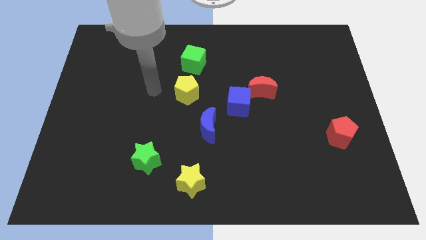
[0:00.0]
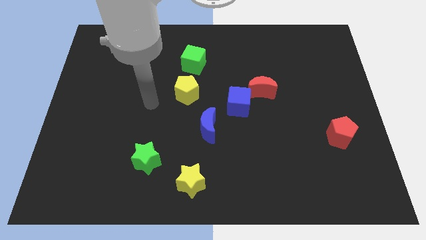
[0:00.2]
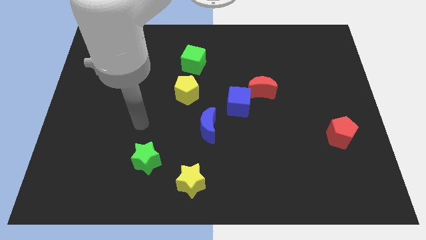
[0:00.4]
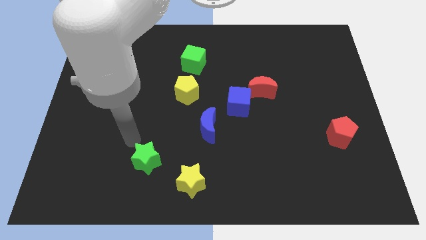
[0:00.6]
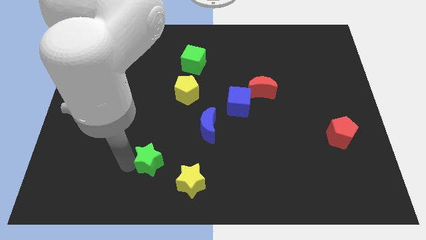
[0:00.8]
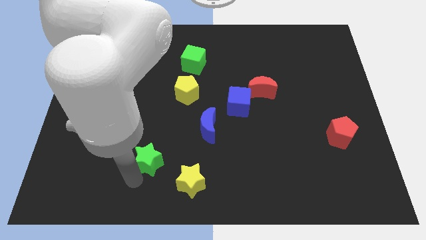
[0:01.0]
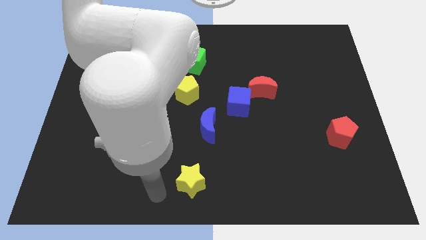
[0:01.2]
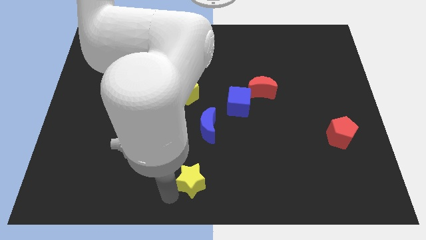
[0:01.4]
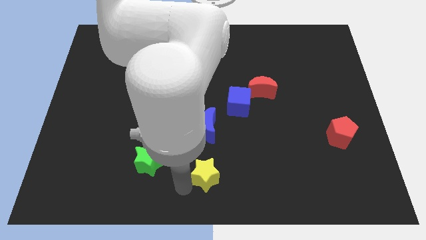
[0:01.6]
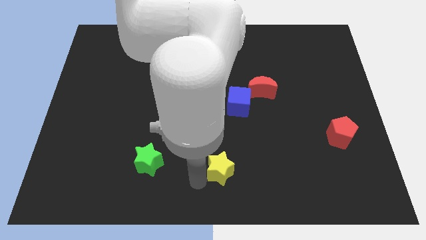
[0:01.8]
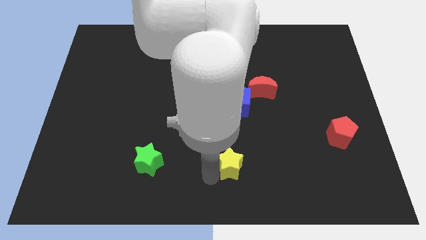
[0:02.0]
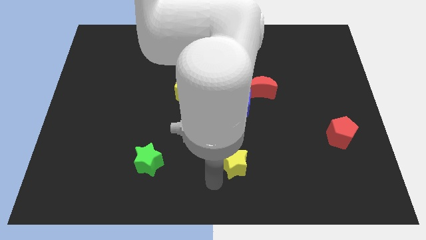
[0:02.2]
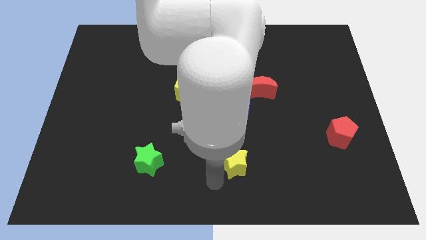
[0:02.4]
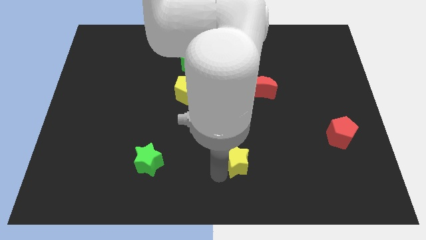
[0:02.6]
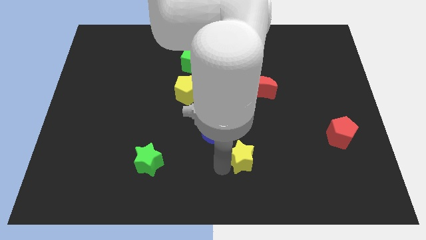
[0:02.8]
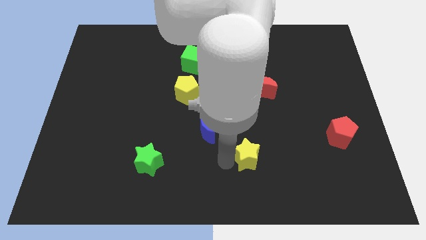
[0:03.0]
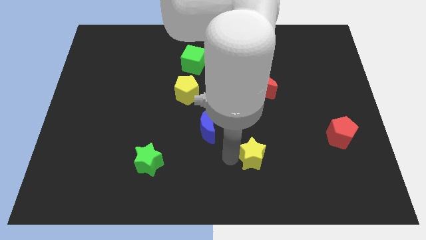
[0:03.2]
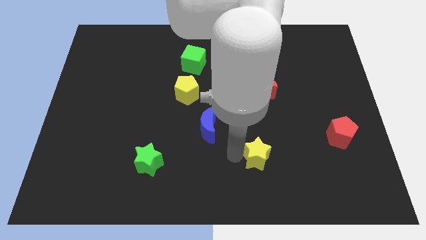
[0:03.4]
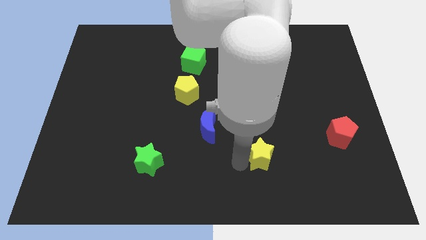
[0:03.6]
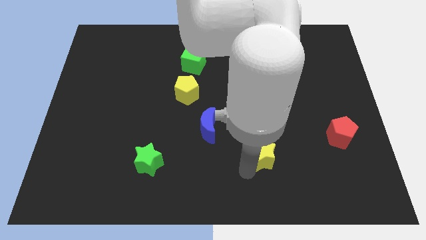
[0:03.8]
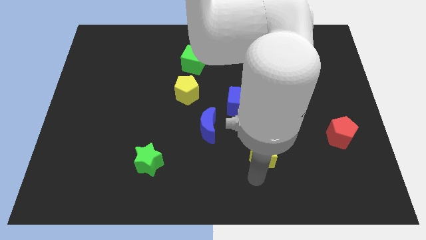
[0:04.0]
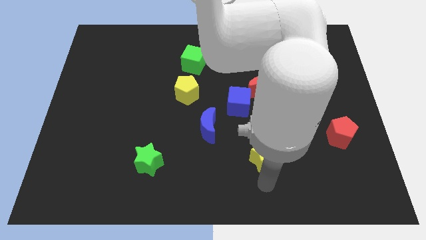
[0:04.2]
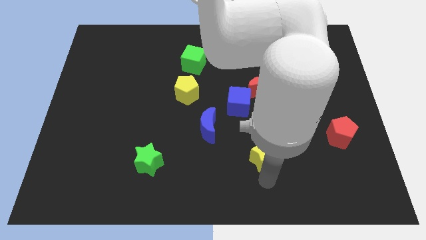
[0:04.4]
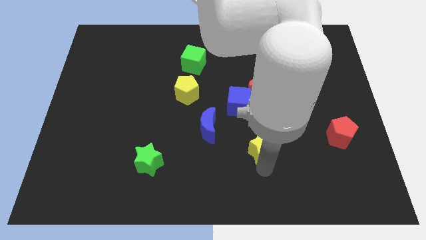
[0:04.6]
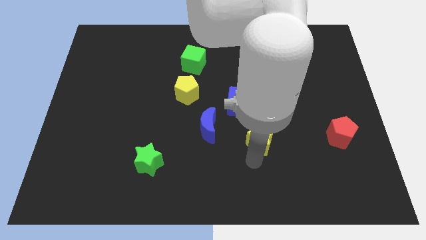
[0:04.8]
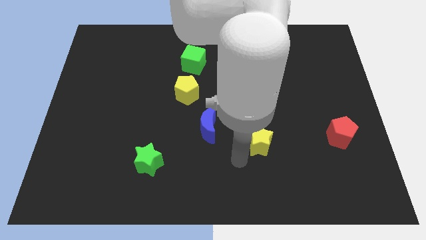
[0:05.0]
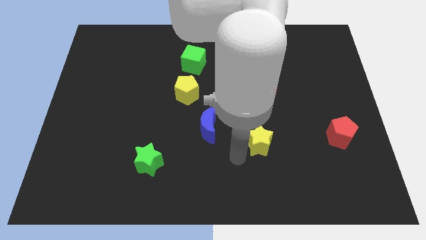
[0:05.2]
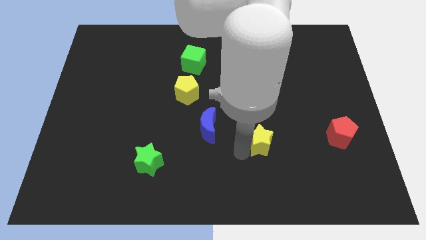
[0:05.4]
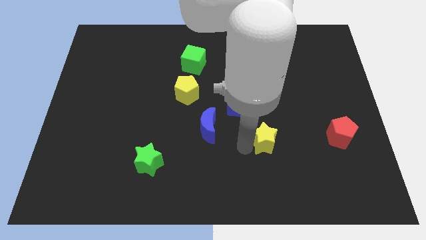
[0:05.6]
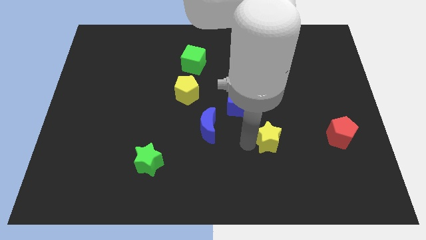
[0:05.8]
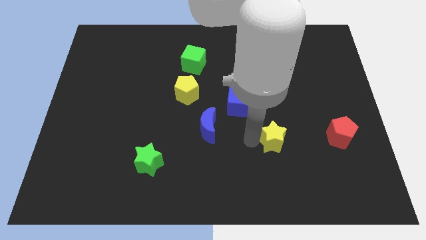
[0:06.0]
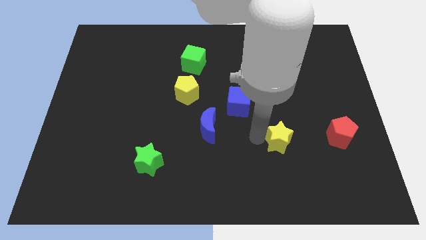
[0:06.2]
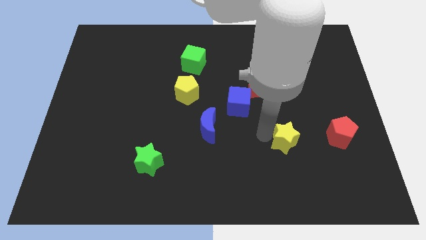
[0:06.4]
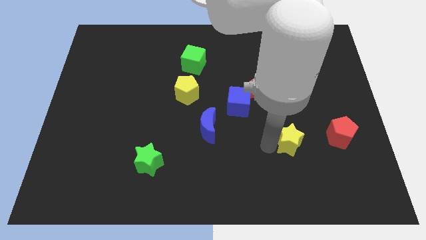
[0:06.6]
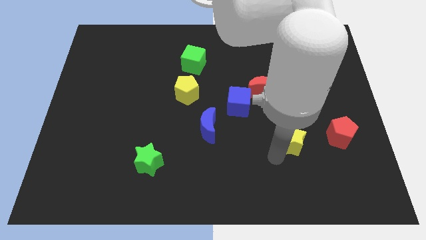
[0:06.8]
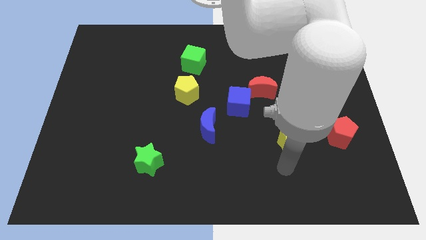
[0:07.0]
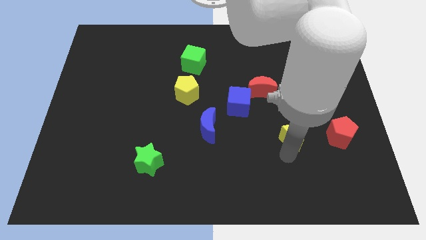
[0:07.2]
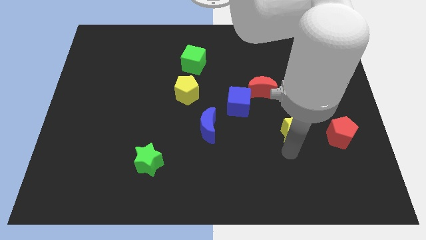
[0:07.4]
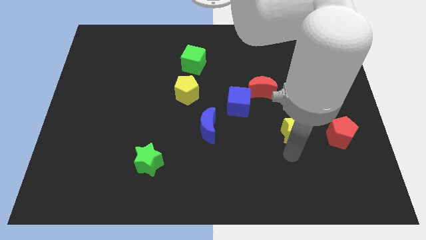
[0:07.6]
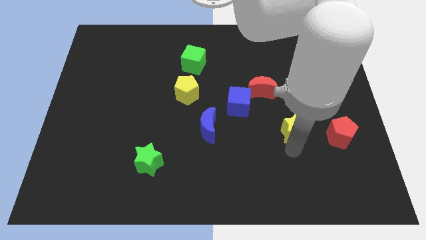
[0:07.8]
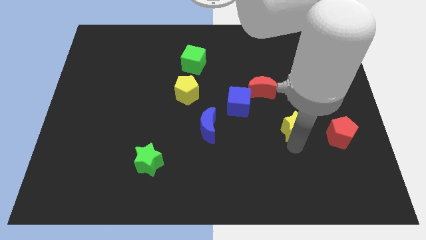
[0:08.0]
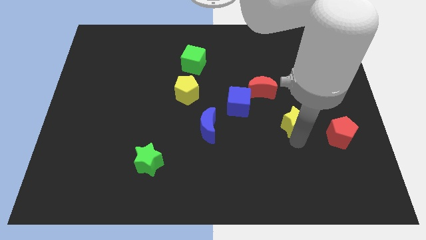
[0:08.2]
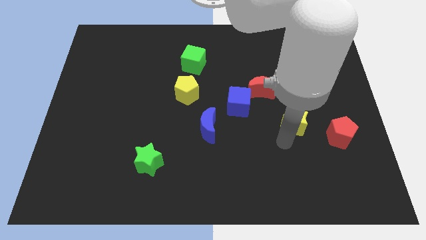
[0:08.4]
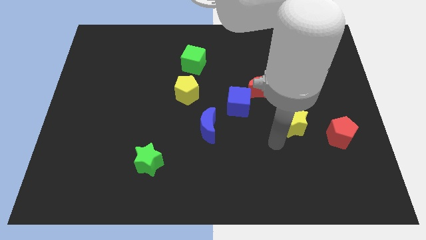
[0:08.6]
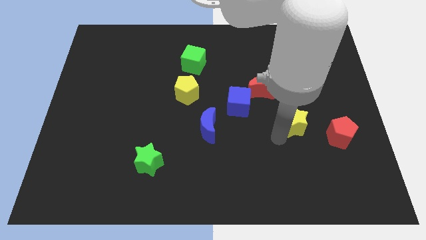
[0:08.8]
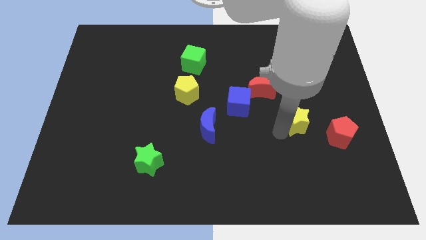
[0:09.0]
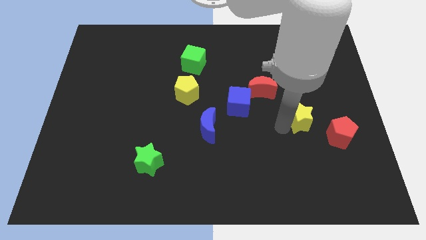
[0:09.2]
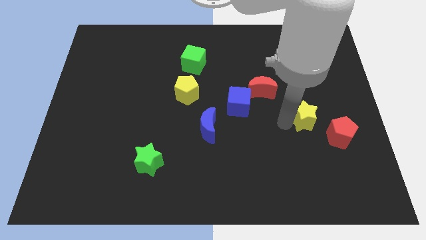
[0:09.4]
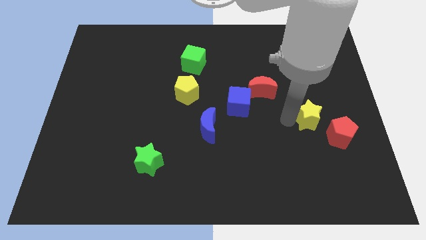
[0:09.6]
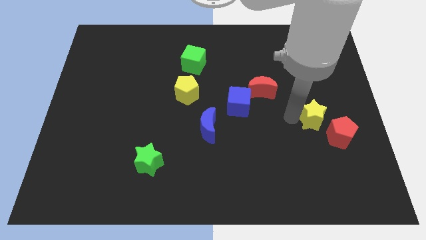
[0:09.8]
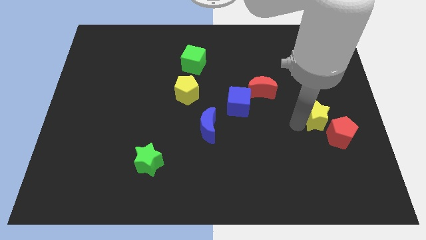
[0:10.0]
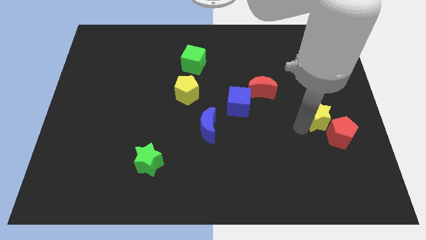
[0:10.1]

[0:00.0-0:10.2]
push the yellow star above the red pentagon

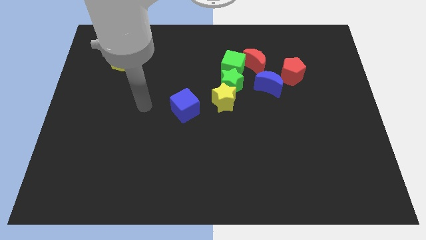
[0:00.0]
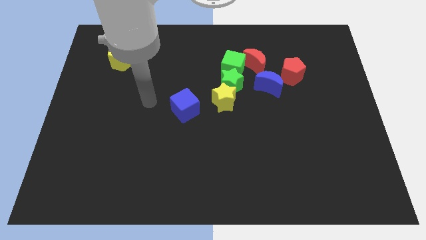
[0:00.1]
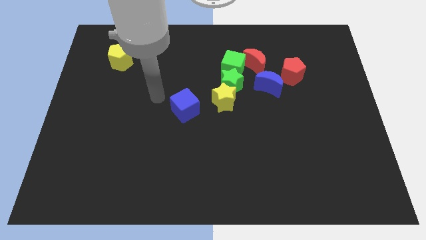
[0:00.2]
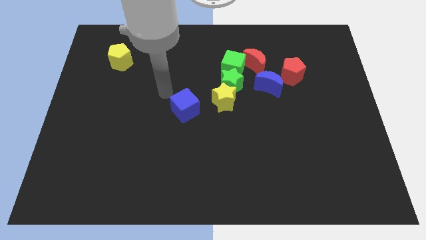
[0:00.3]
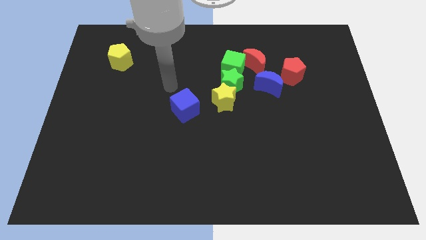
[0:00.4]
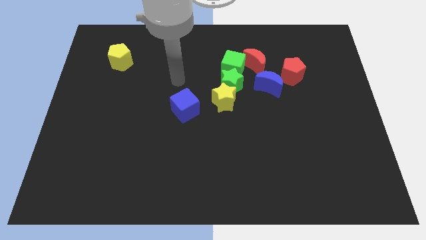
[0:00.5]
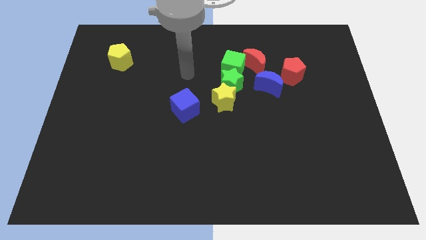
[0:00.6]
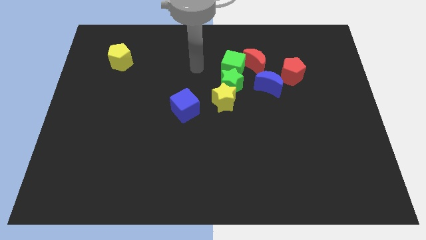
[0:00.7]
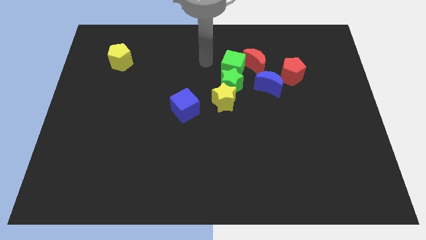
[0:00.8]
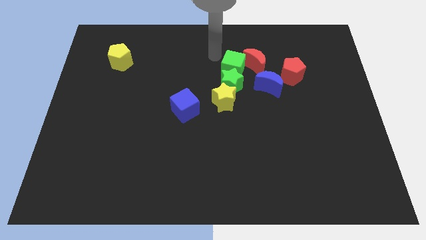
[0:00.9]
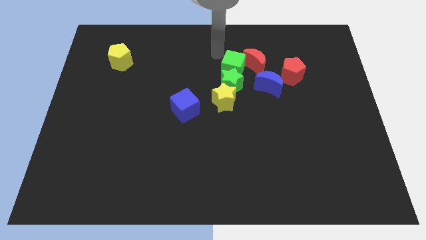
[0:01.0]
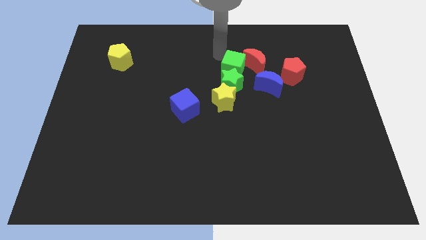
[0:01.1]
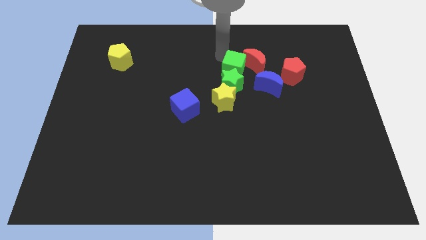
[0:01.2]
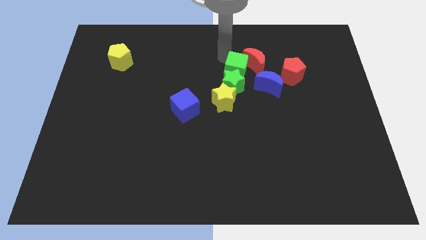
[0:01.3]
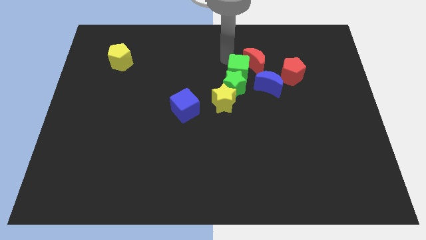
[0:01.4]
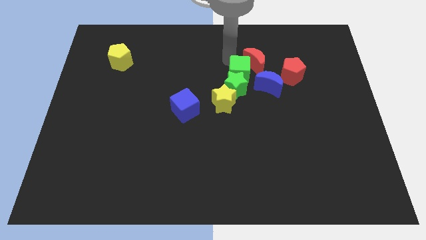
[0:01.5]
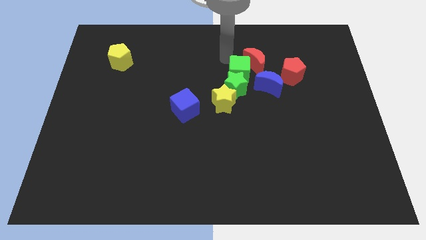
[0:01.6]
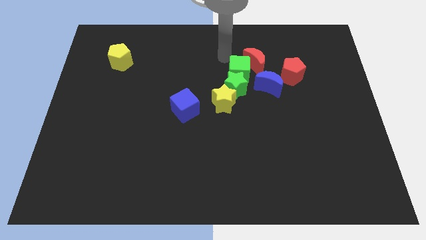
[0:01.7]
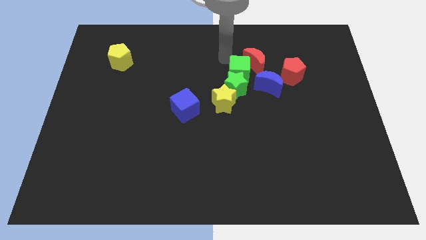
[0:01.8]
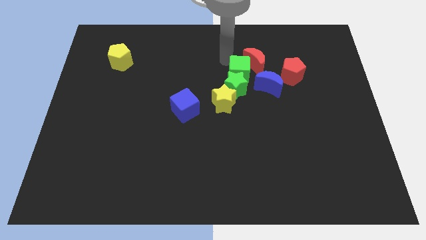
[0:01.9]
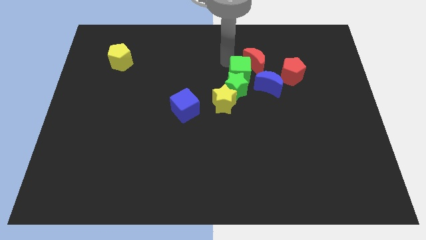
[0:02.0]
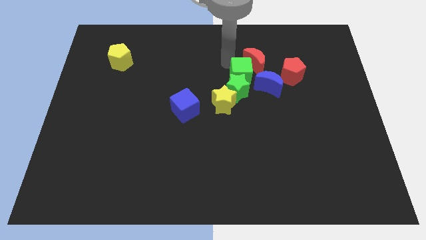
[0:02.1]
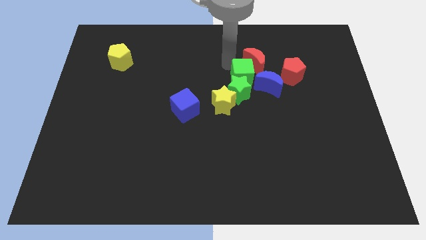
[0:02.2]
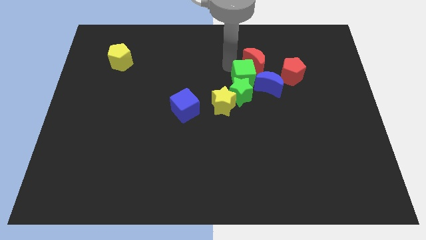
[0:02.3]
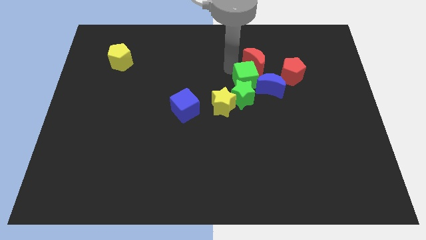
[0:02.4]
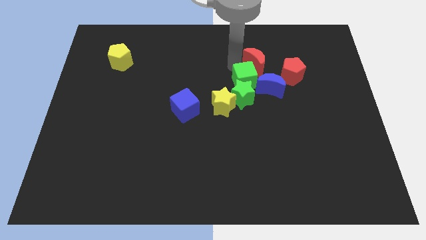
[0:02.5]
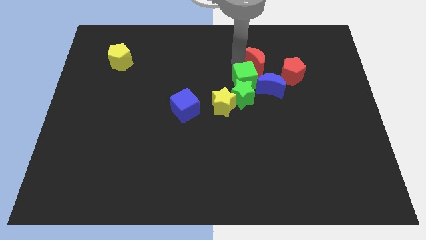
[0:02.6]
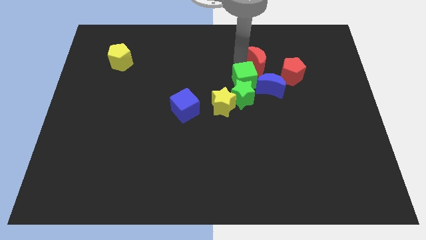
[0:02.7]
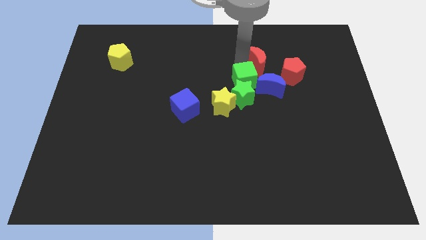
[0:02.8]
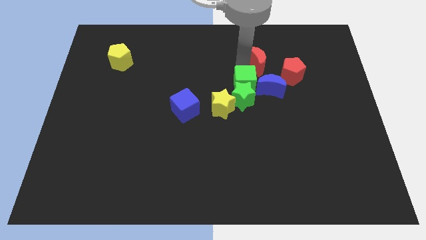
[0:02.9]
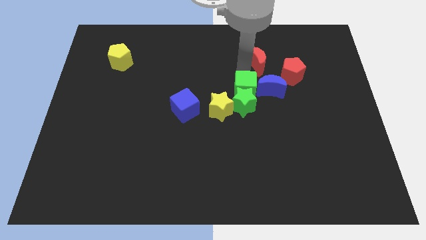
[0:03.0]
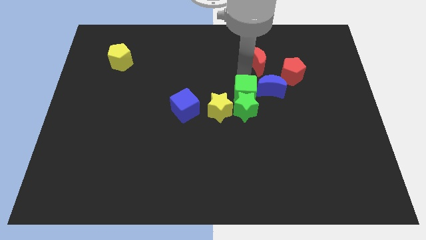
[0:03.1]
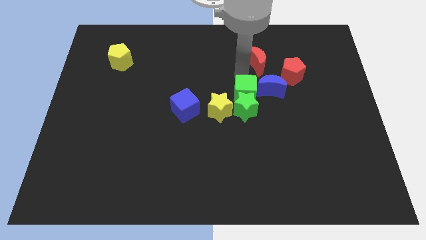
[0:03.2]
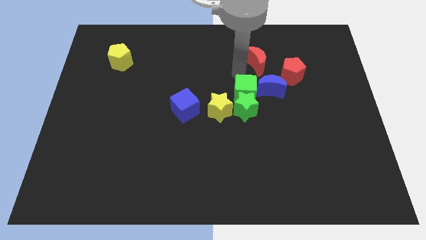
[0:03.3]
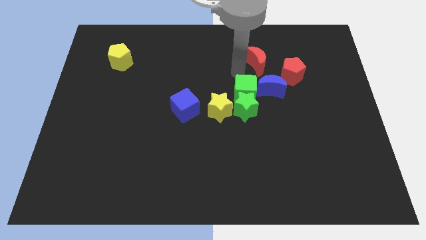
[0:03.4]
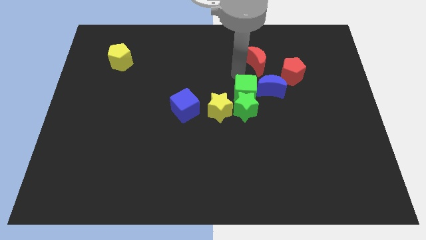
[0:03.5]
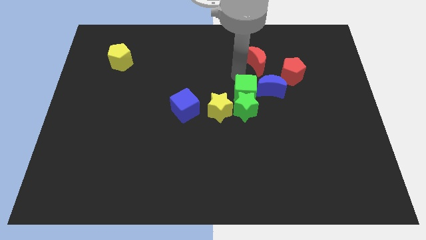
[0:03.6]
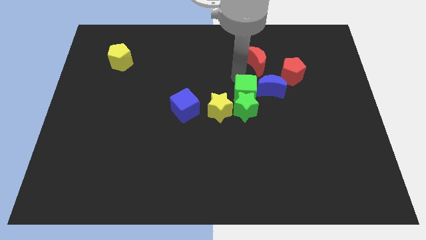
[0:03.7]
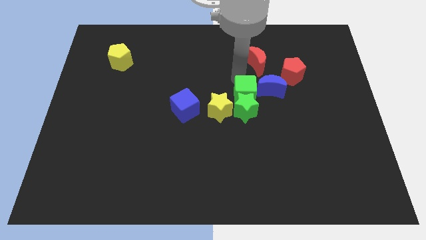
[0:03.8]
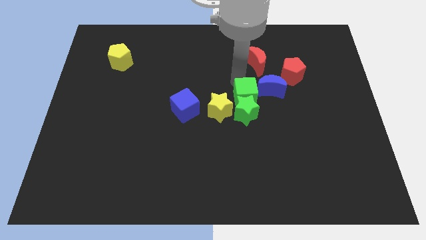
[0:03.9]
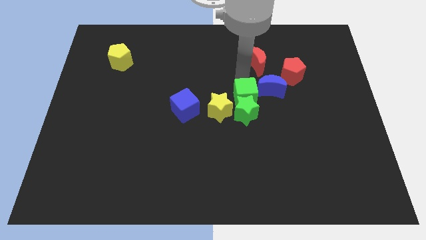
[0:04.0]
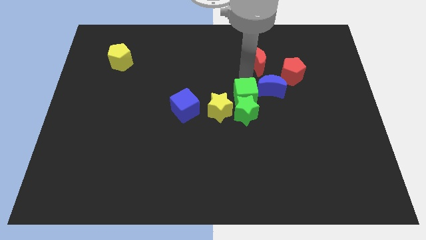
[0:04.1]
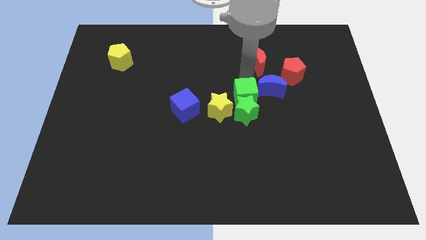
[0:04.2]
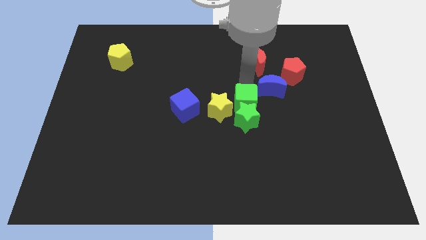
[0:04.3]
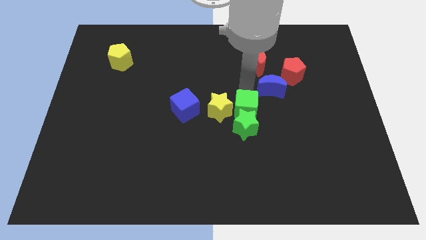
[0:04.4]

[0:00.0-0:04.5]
slide the green cube to the bottom right side of the yellow star
